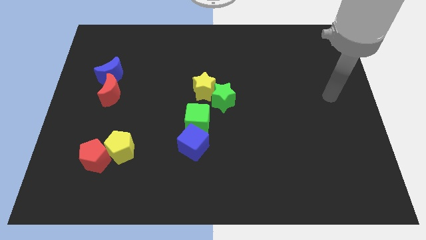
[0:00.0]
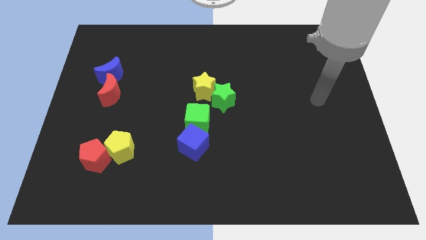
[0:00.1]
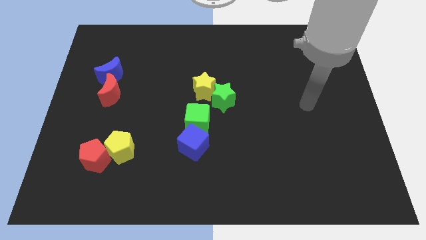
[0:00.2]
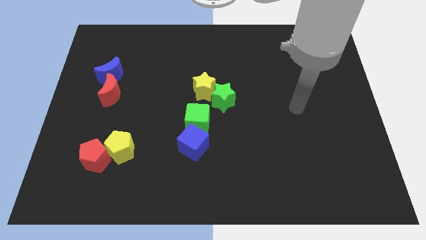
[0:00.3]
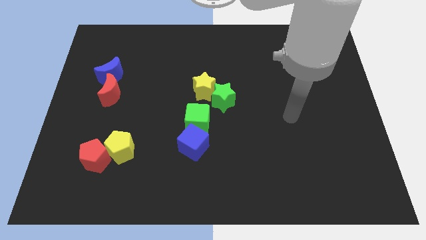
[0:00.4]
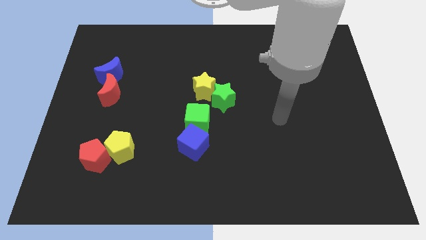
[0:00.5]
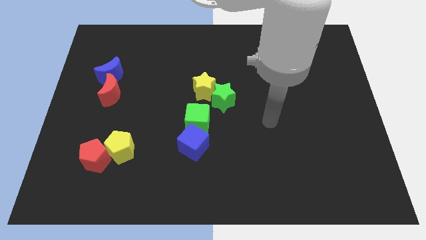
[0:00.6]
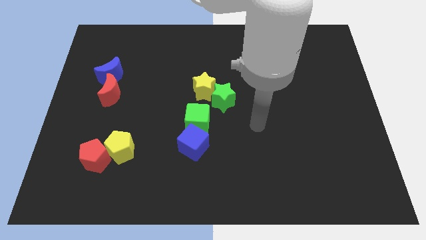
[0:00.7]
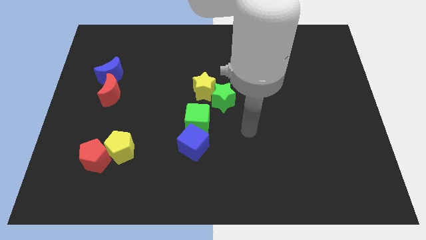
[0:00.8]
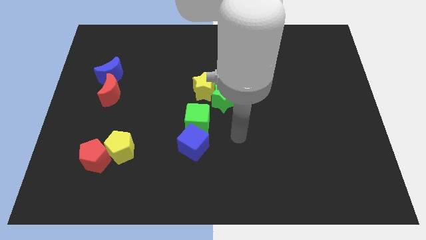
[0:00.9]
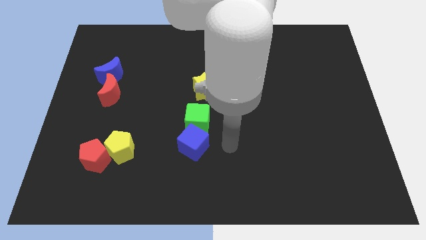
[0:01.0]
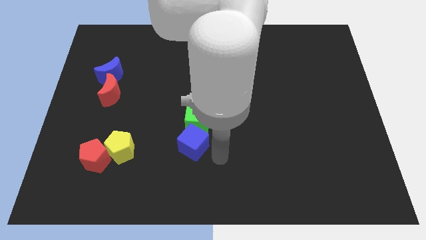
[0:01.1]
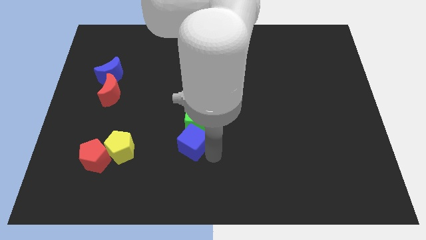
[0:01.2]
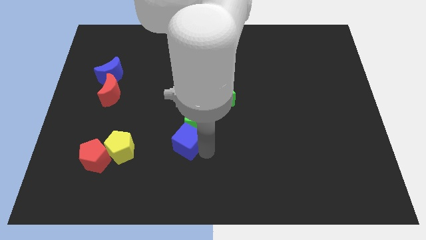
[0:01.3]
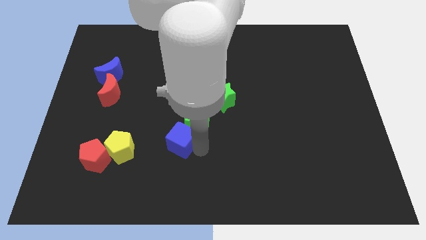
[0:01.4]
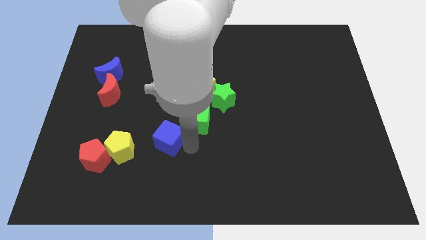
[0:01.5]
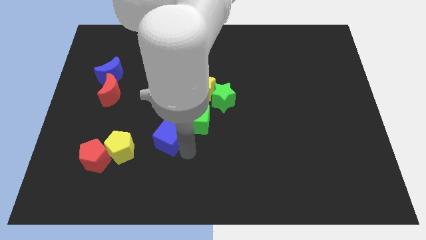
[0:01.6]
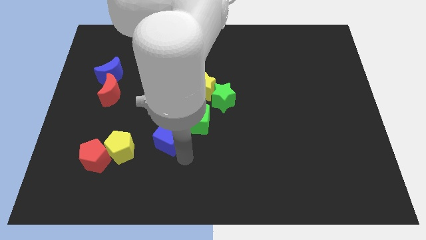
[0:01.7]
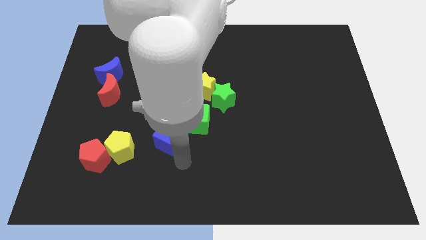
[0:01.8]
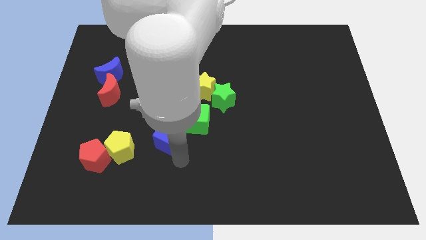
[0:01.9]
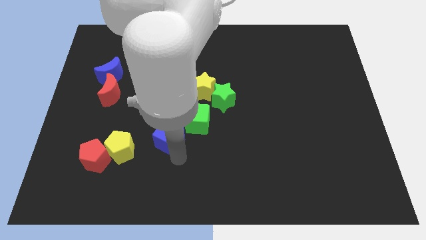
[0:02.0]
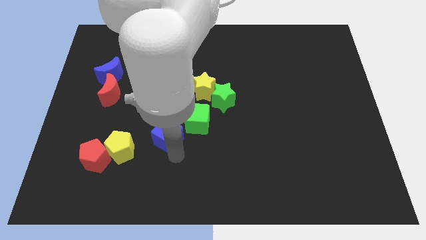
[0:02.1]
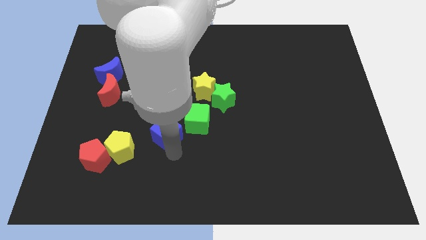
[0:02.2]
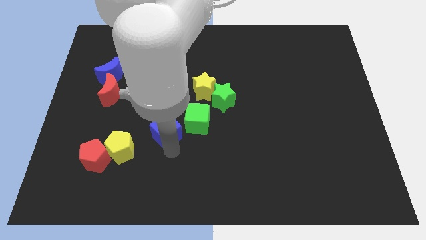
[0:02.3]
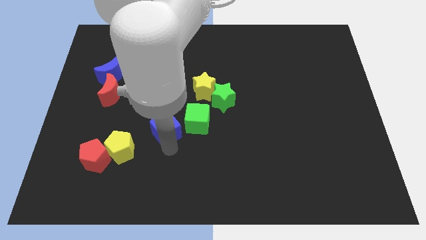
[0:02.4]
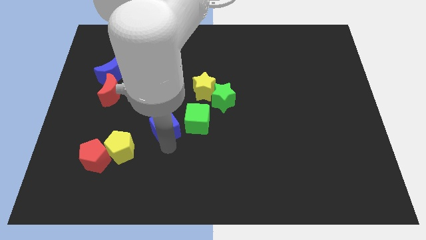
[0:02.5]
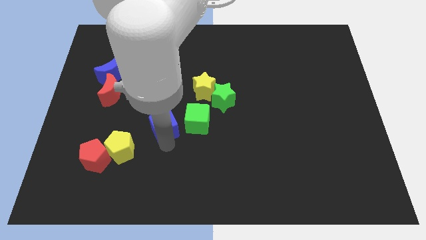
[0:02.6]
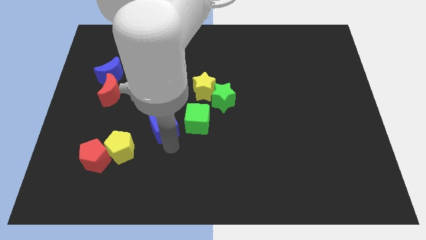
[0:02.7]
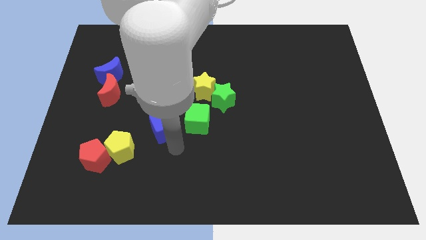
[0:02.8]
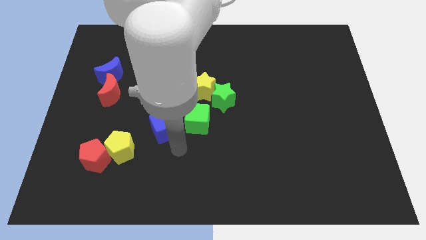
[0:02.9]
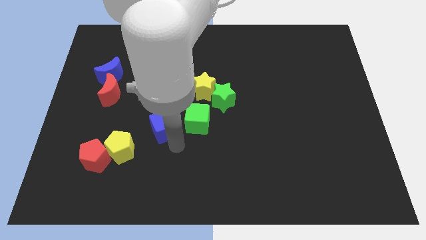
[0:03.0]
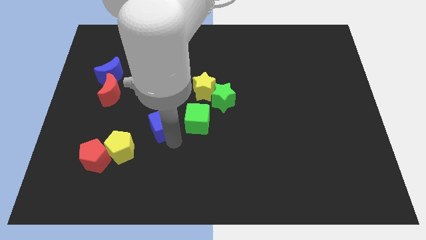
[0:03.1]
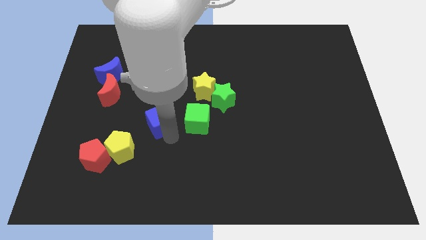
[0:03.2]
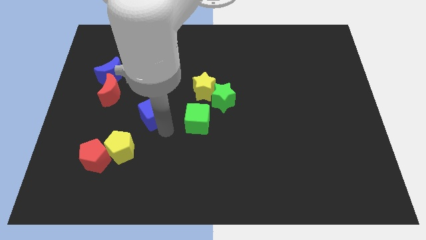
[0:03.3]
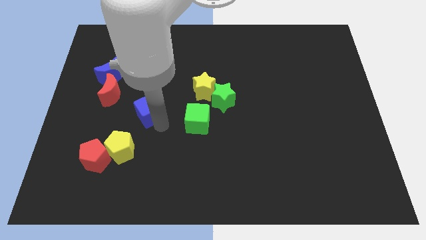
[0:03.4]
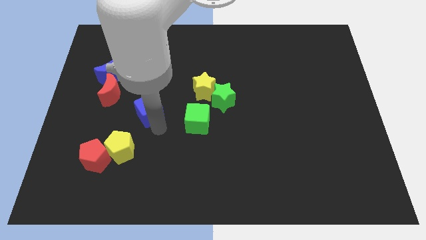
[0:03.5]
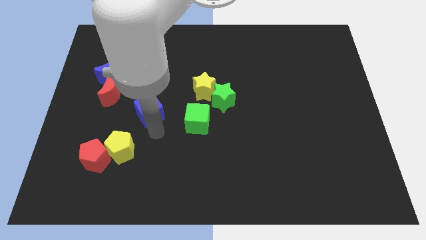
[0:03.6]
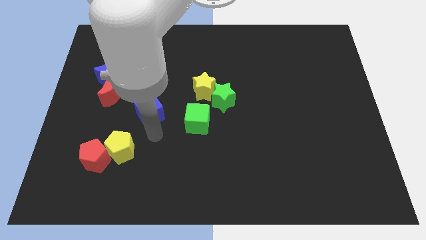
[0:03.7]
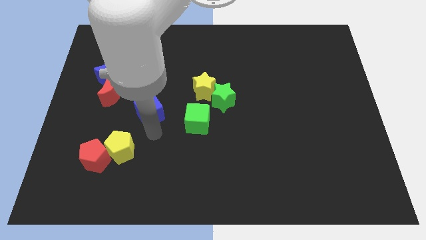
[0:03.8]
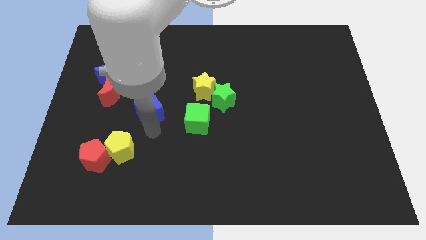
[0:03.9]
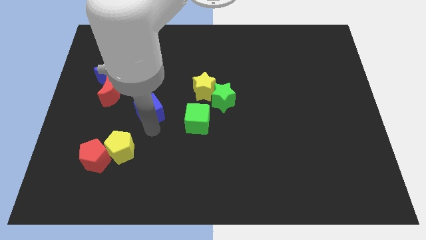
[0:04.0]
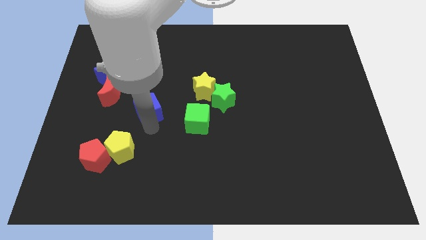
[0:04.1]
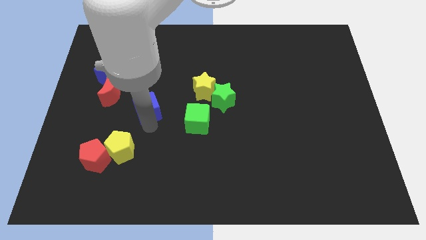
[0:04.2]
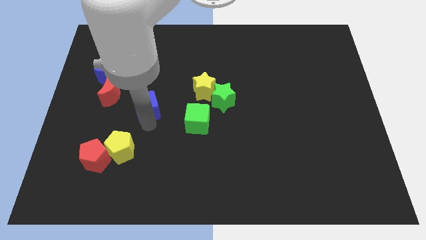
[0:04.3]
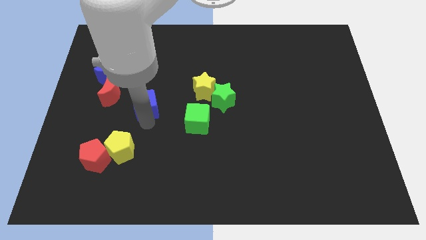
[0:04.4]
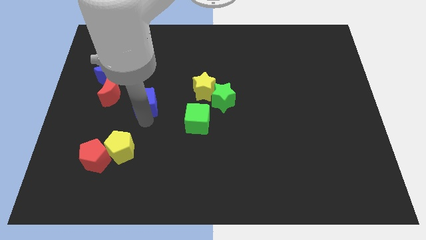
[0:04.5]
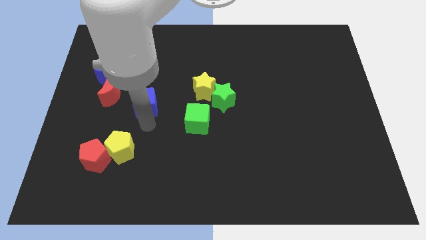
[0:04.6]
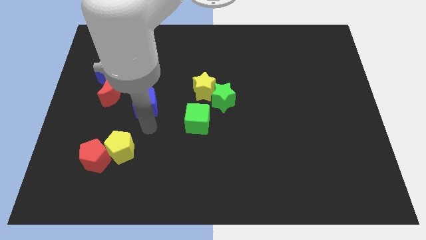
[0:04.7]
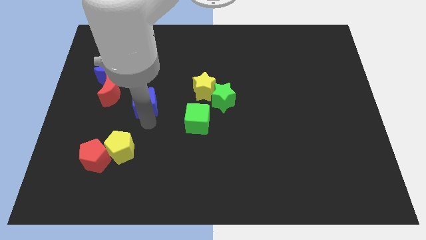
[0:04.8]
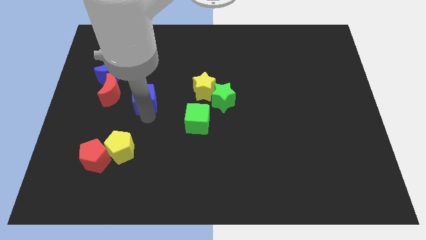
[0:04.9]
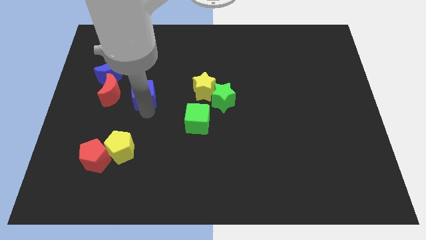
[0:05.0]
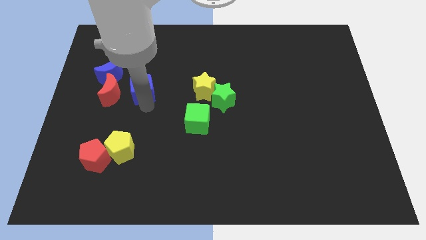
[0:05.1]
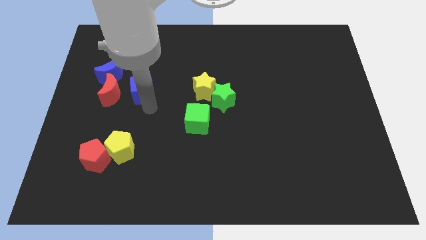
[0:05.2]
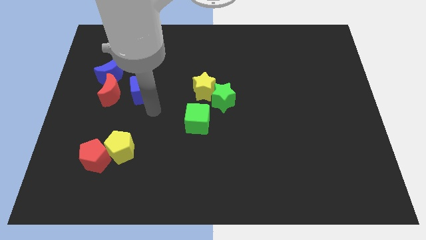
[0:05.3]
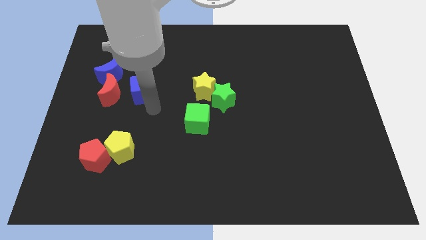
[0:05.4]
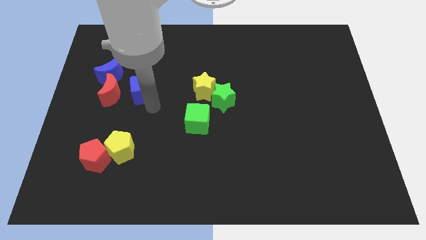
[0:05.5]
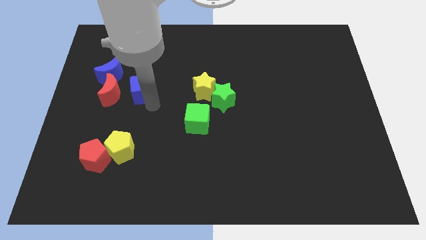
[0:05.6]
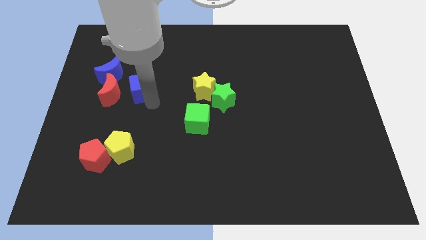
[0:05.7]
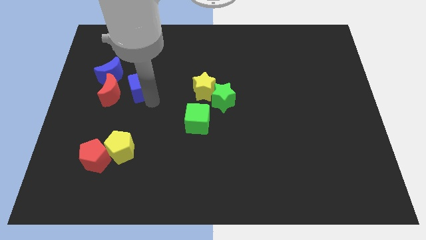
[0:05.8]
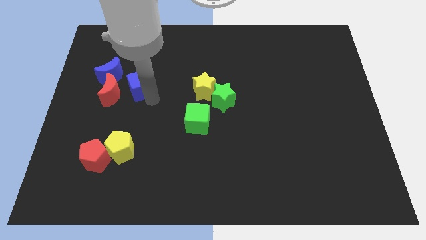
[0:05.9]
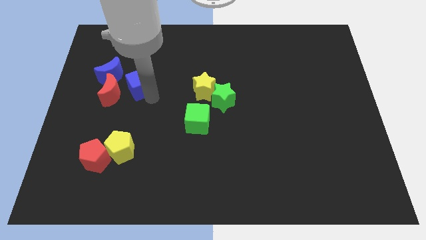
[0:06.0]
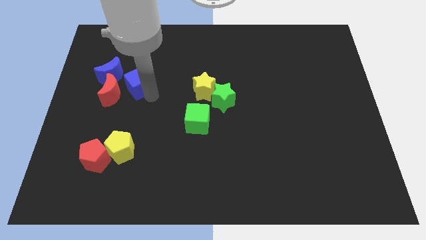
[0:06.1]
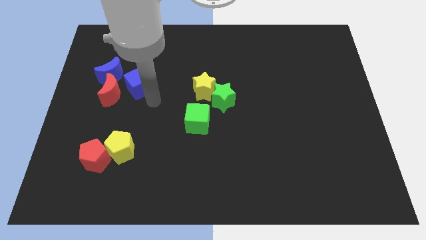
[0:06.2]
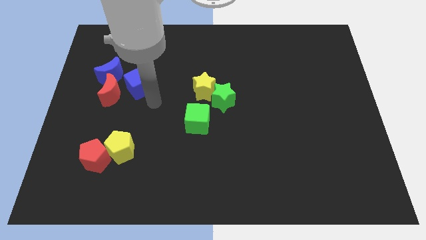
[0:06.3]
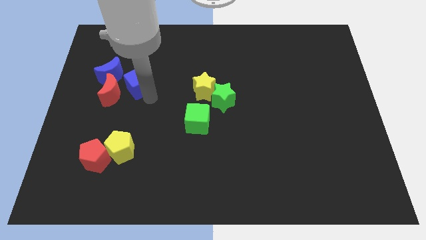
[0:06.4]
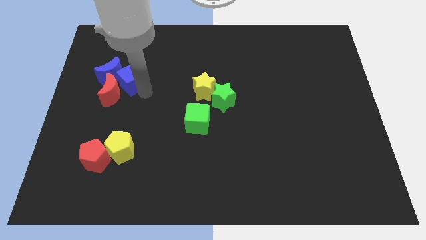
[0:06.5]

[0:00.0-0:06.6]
move the blue cube above the red moon
